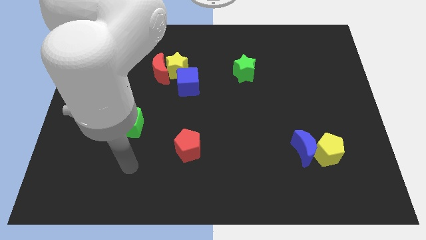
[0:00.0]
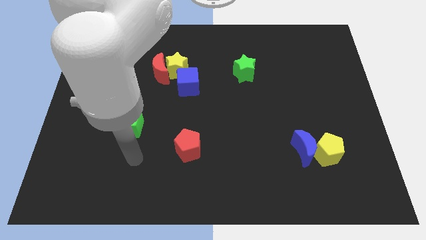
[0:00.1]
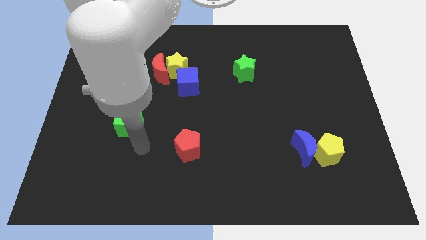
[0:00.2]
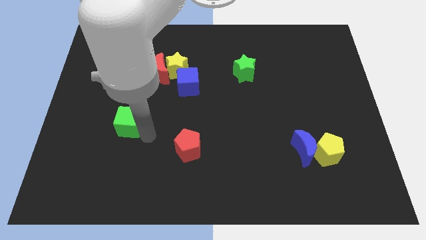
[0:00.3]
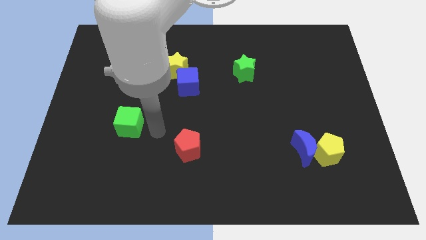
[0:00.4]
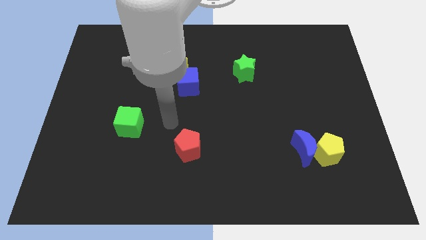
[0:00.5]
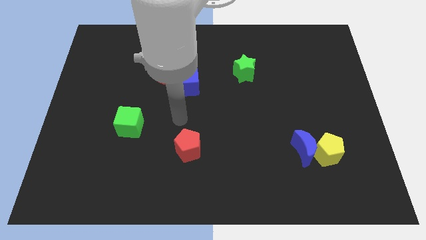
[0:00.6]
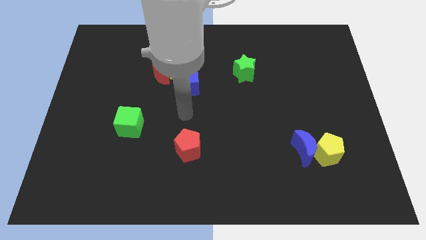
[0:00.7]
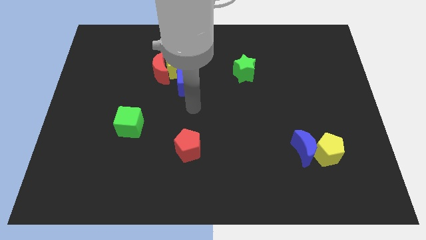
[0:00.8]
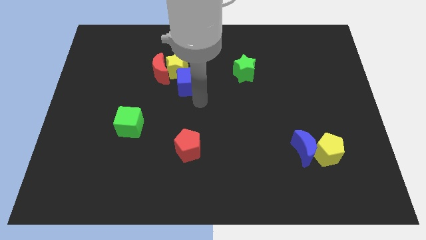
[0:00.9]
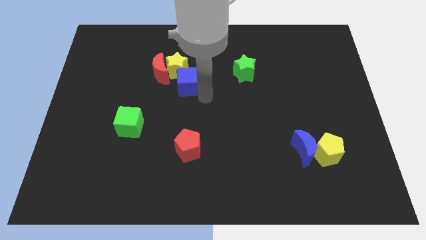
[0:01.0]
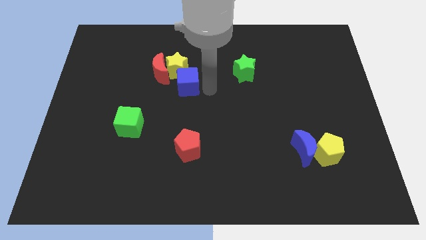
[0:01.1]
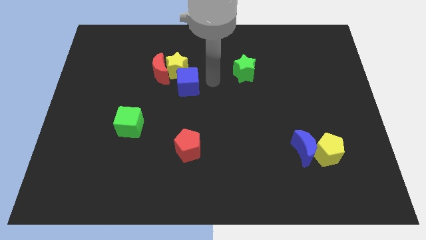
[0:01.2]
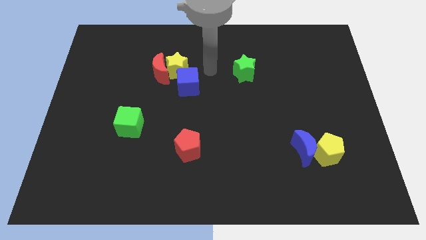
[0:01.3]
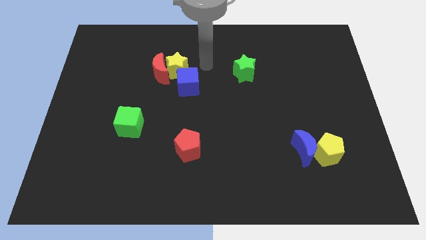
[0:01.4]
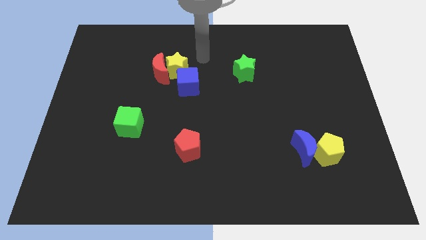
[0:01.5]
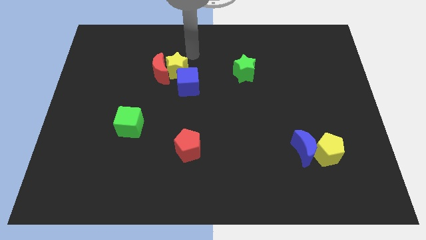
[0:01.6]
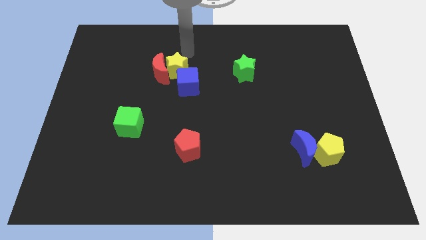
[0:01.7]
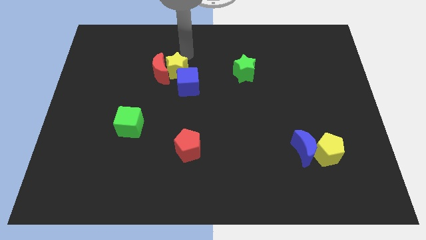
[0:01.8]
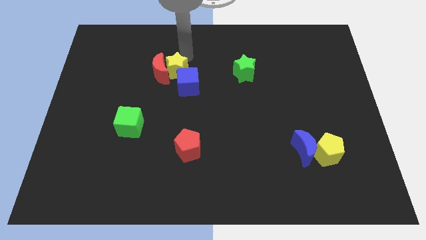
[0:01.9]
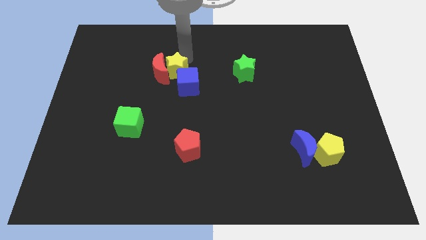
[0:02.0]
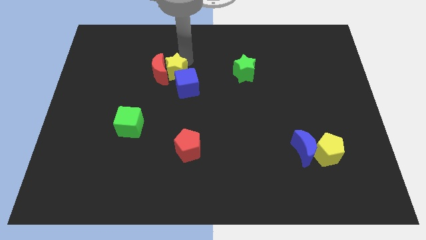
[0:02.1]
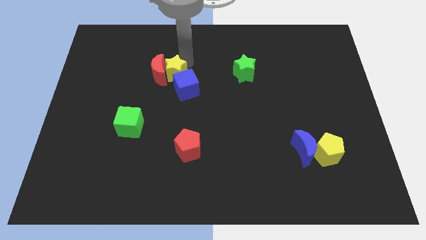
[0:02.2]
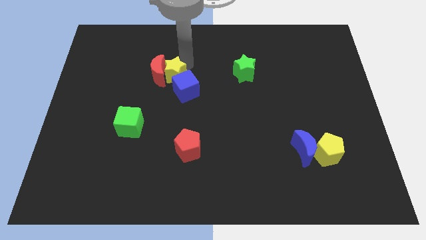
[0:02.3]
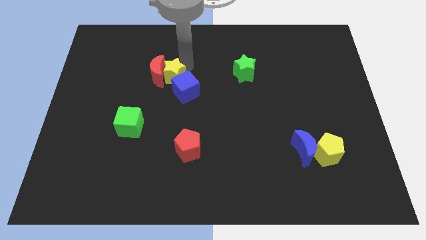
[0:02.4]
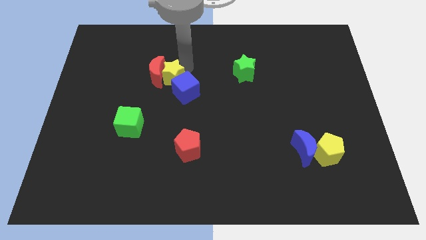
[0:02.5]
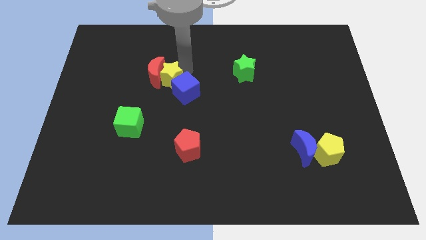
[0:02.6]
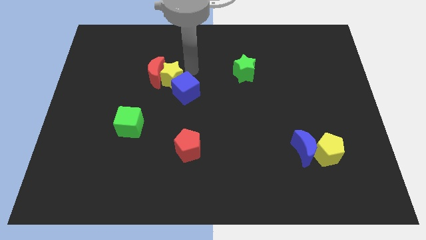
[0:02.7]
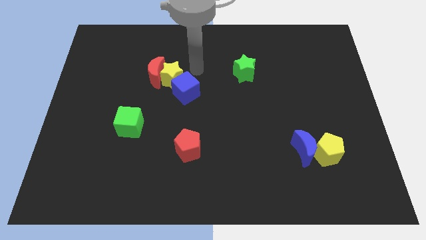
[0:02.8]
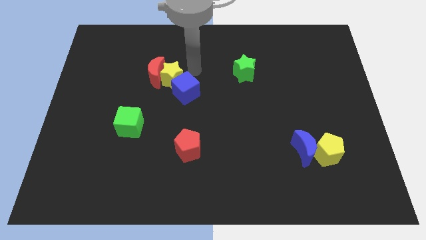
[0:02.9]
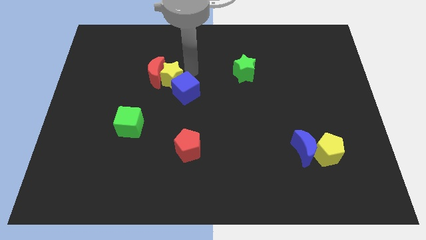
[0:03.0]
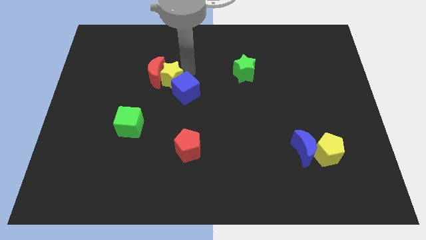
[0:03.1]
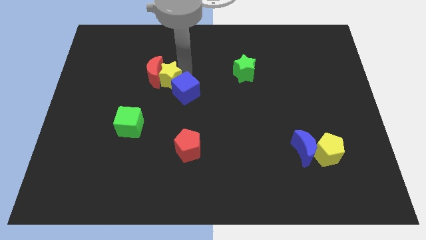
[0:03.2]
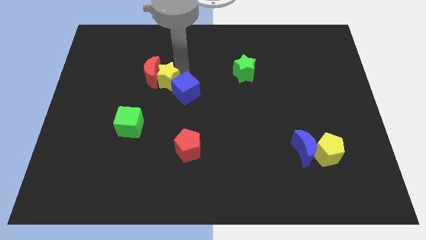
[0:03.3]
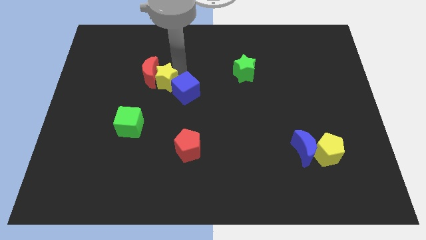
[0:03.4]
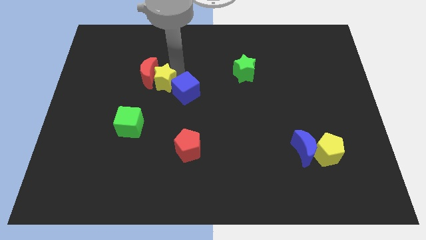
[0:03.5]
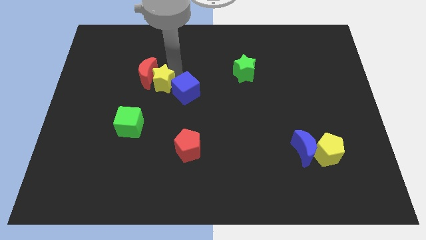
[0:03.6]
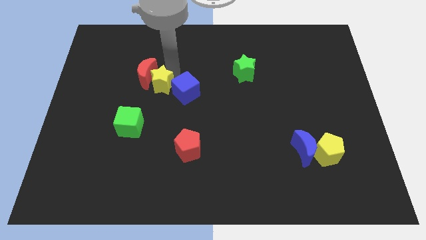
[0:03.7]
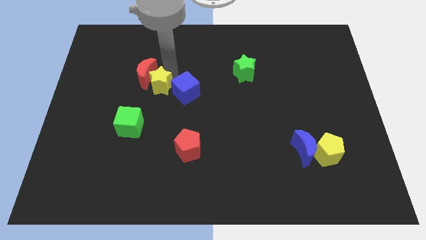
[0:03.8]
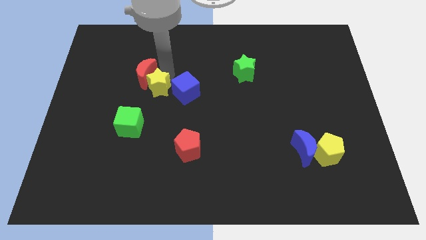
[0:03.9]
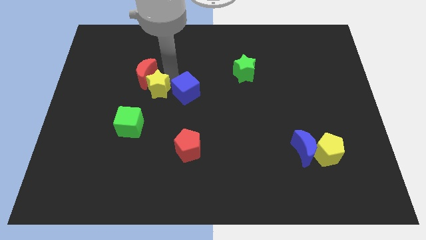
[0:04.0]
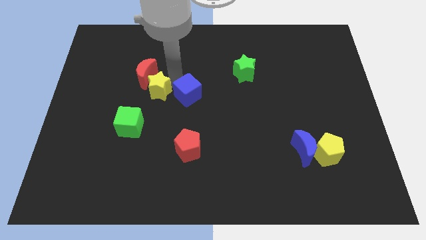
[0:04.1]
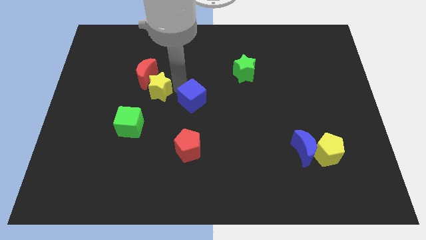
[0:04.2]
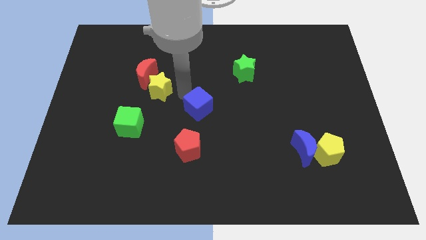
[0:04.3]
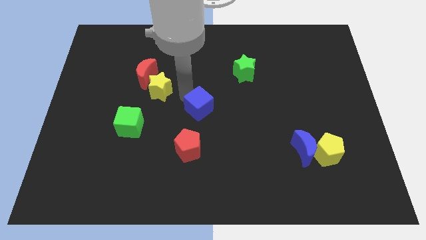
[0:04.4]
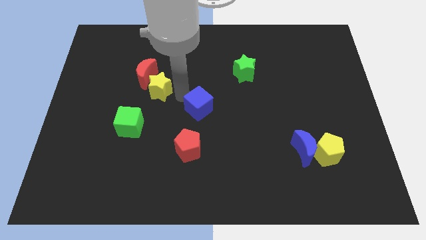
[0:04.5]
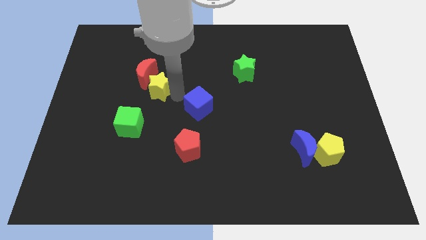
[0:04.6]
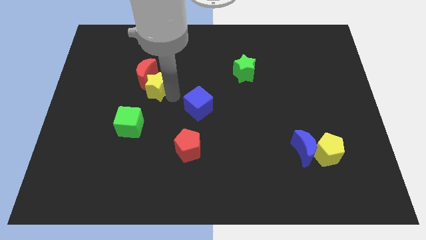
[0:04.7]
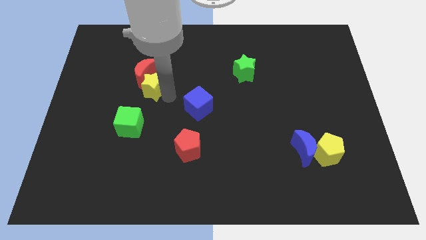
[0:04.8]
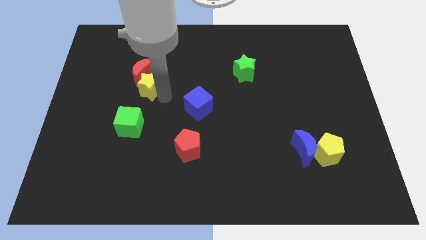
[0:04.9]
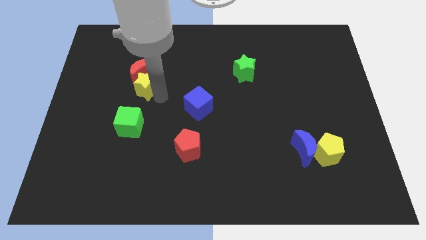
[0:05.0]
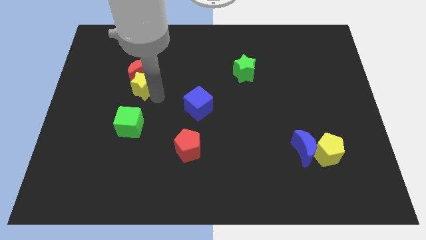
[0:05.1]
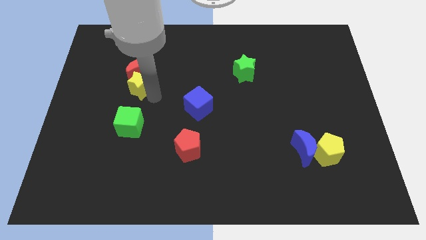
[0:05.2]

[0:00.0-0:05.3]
move the yellow star to the left somewhat

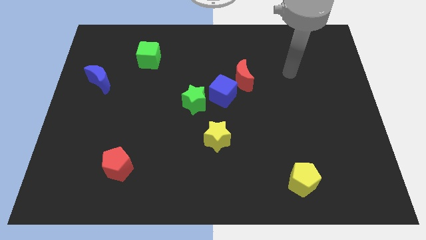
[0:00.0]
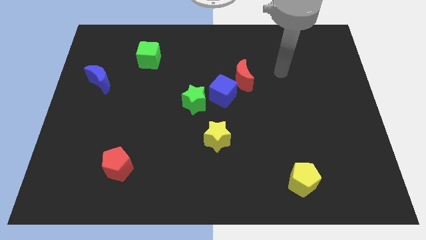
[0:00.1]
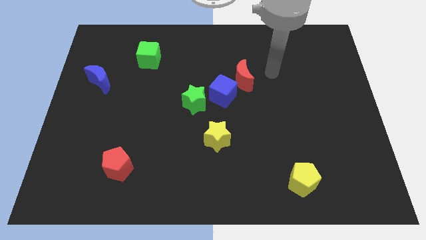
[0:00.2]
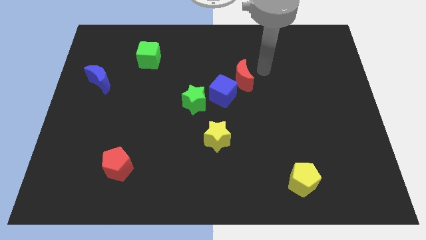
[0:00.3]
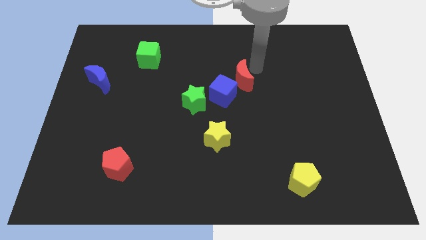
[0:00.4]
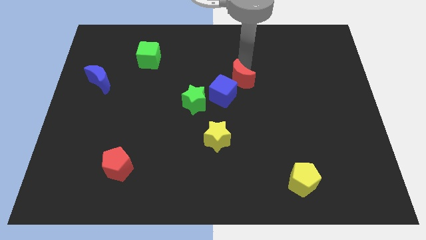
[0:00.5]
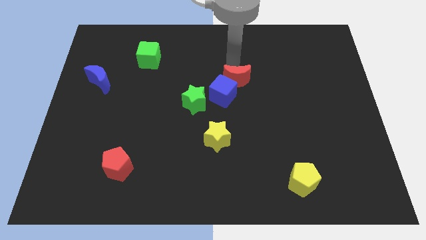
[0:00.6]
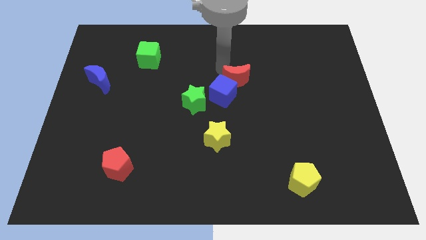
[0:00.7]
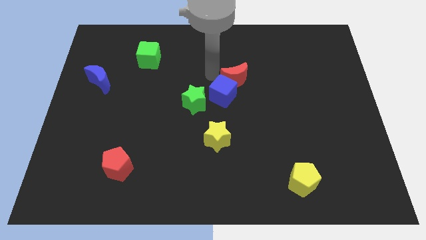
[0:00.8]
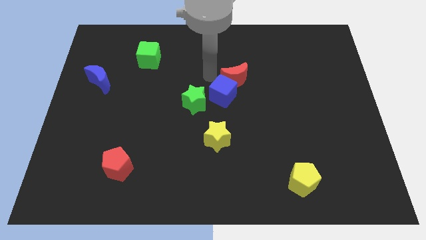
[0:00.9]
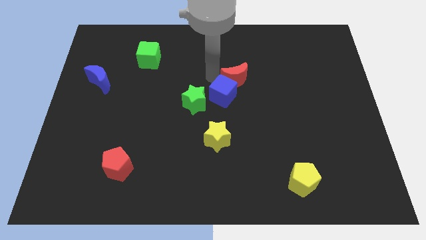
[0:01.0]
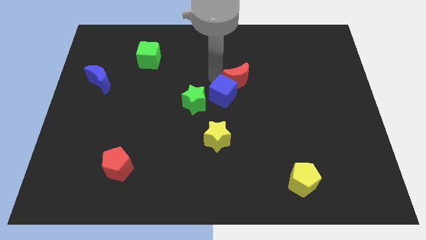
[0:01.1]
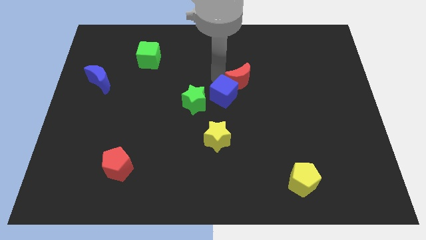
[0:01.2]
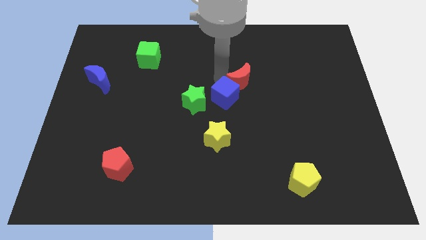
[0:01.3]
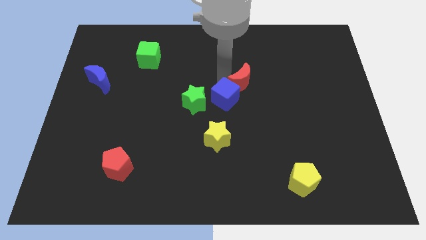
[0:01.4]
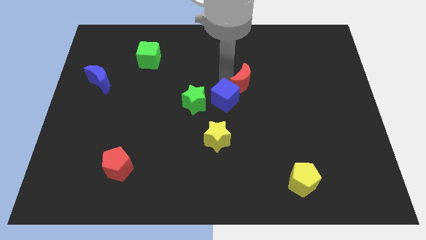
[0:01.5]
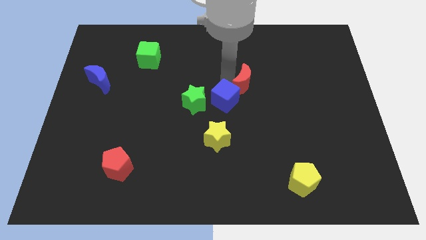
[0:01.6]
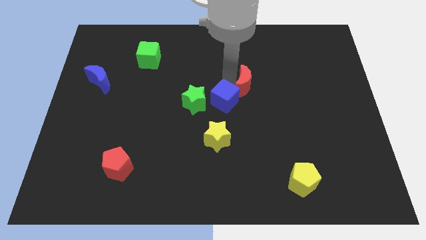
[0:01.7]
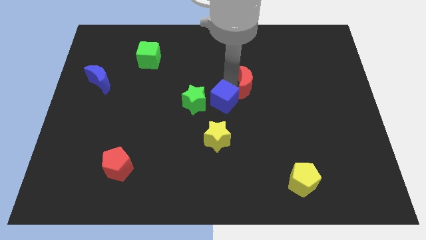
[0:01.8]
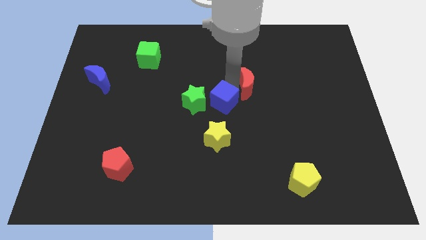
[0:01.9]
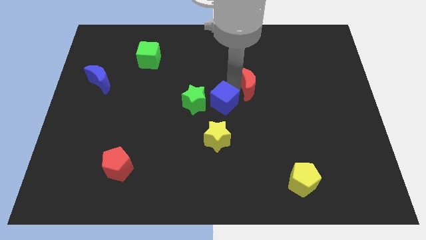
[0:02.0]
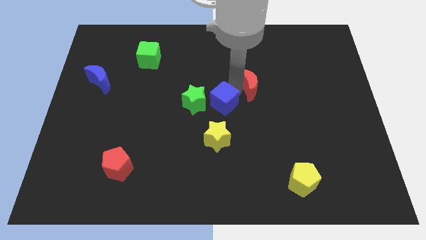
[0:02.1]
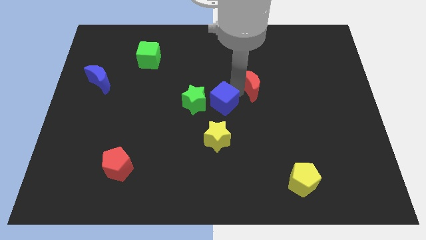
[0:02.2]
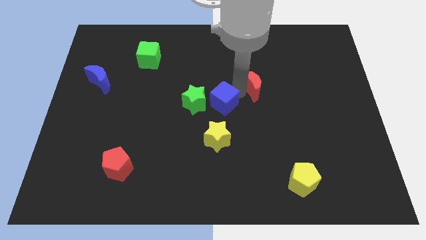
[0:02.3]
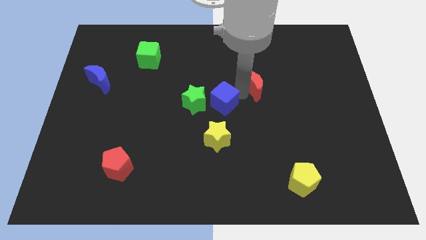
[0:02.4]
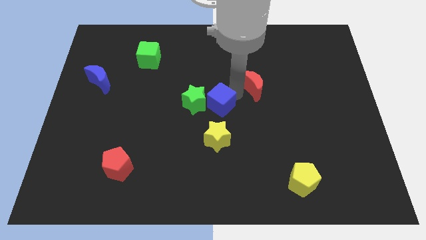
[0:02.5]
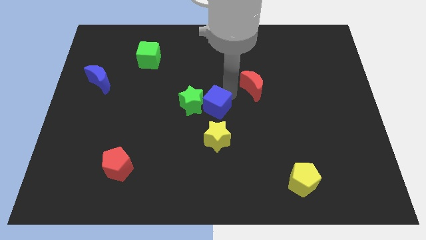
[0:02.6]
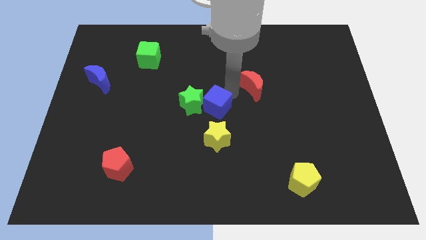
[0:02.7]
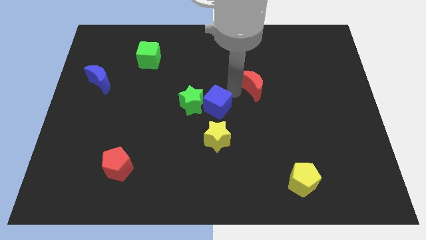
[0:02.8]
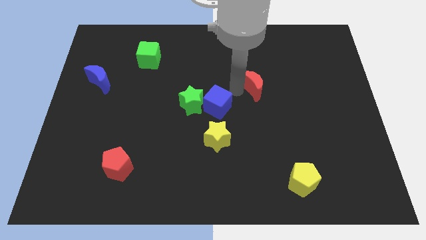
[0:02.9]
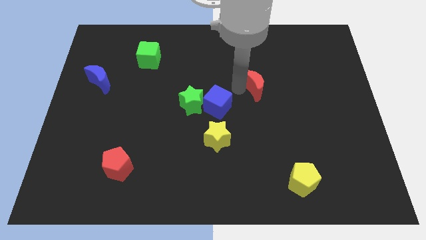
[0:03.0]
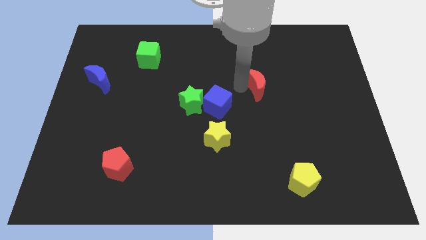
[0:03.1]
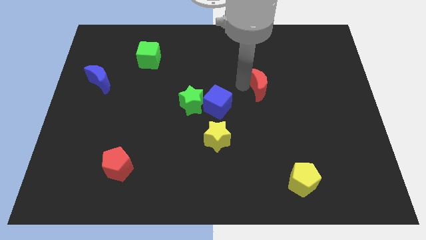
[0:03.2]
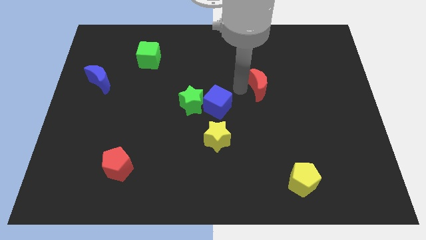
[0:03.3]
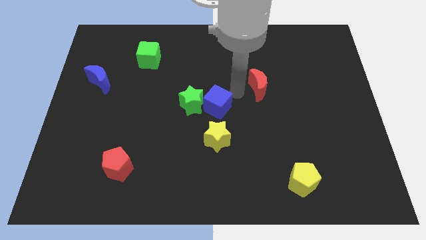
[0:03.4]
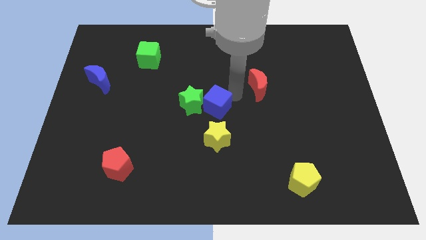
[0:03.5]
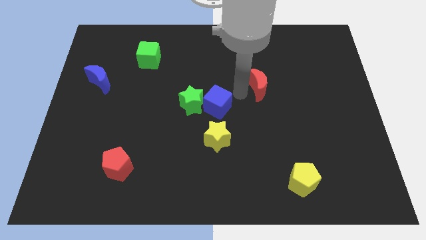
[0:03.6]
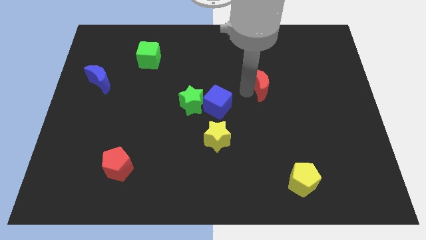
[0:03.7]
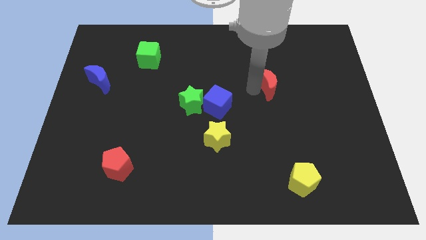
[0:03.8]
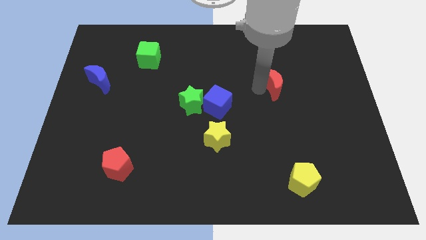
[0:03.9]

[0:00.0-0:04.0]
slightly move the red moon to the right
